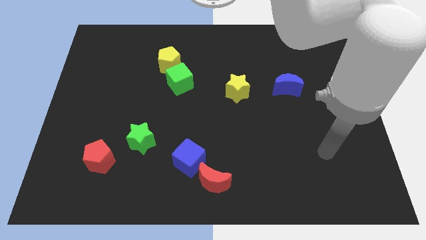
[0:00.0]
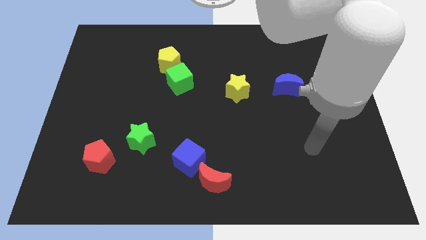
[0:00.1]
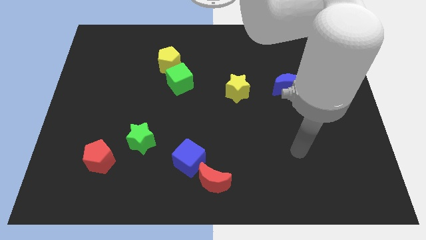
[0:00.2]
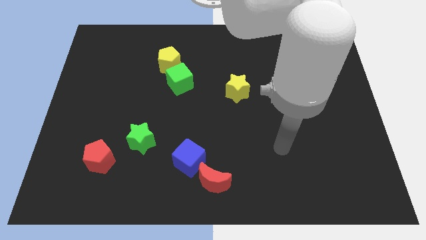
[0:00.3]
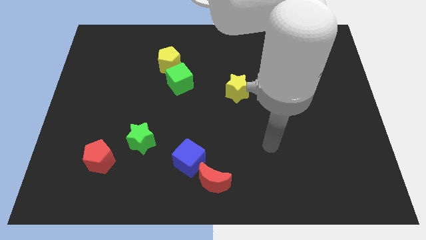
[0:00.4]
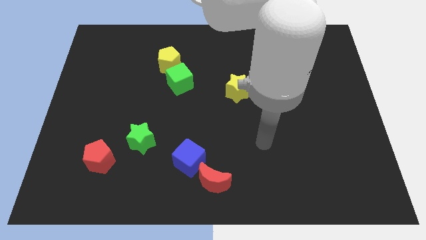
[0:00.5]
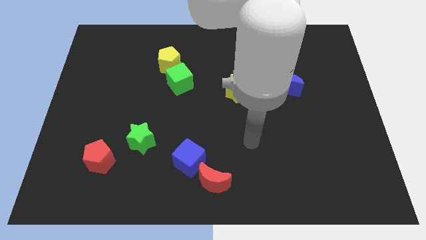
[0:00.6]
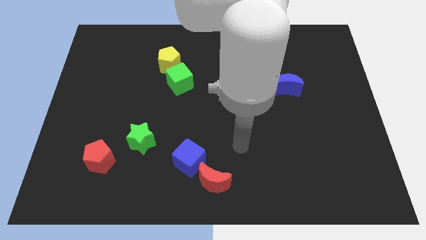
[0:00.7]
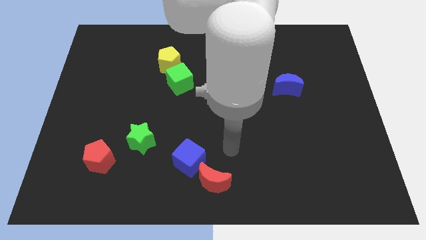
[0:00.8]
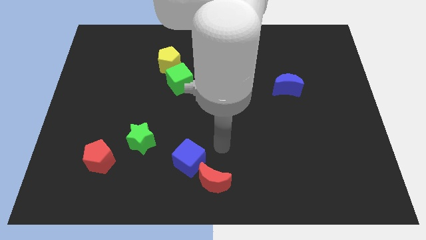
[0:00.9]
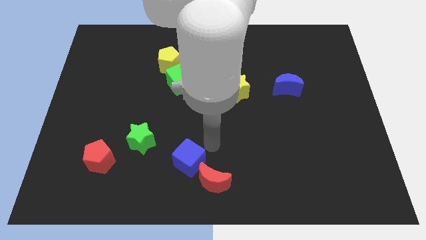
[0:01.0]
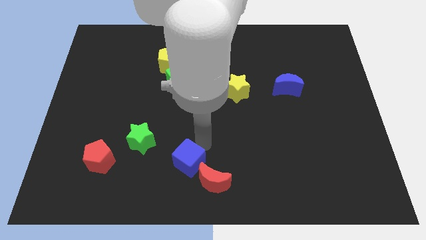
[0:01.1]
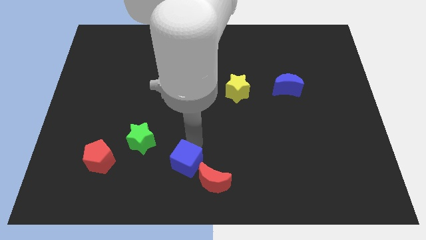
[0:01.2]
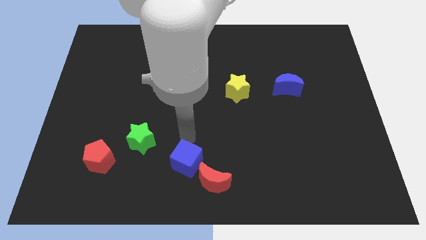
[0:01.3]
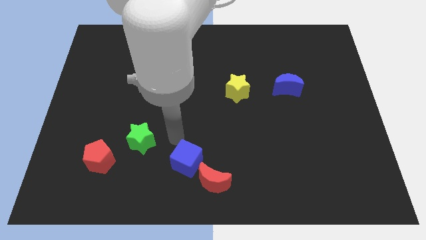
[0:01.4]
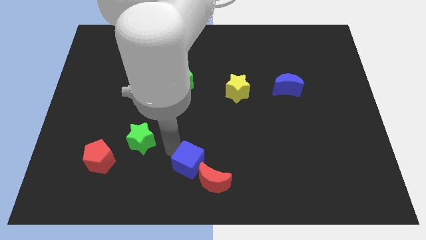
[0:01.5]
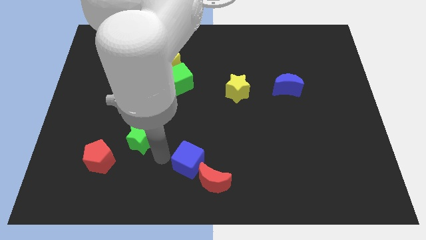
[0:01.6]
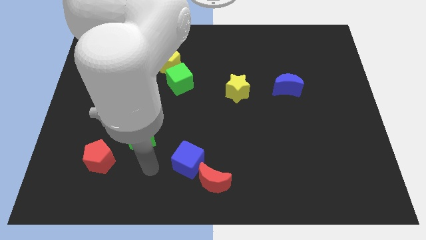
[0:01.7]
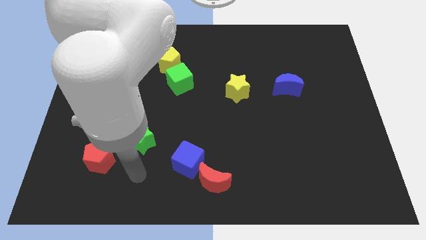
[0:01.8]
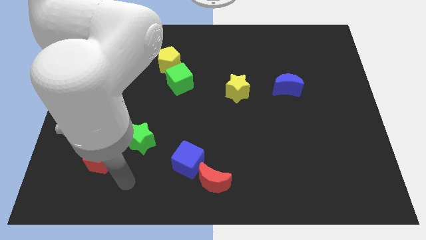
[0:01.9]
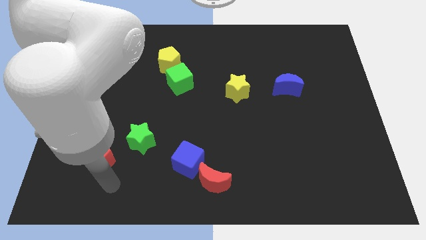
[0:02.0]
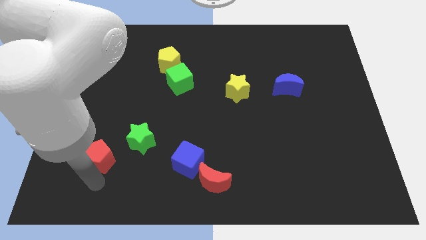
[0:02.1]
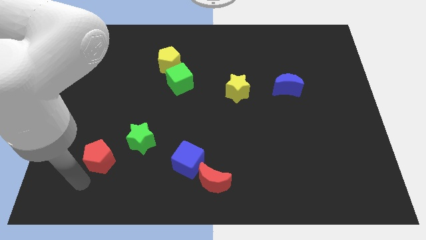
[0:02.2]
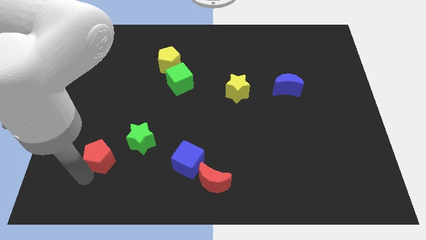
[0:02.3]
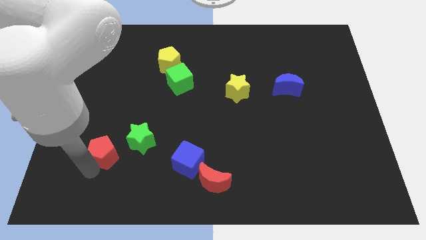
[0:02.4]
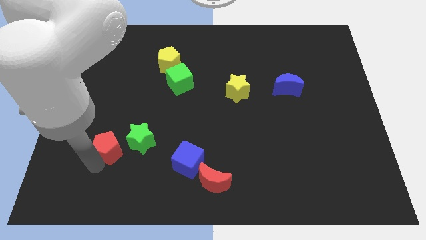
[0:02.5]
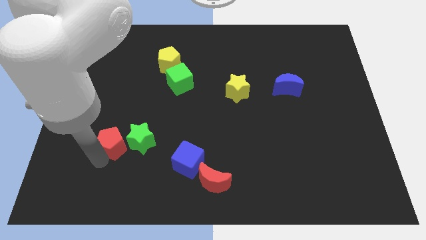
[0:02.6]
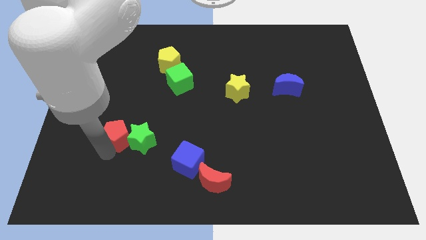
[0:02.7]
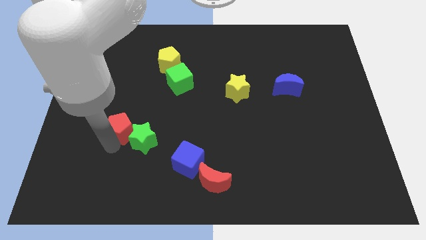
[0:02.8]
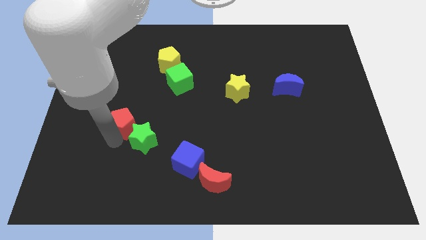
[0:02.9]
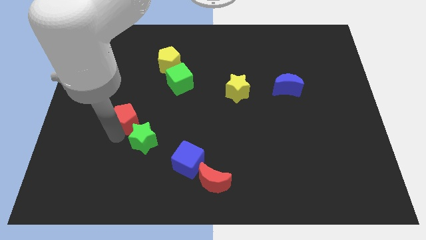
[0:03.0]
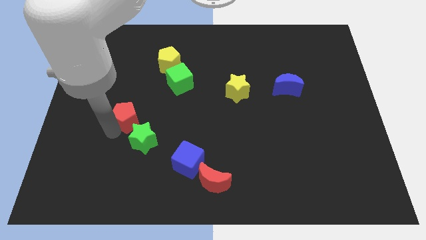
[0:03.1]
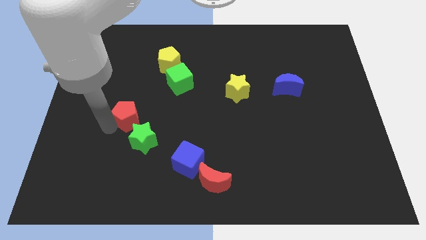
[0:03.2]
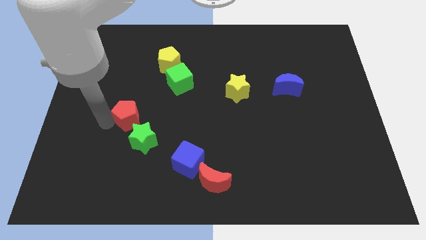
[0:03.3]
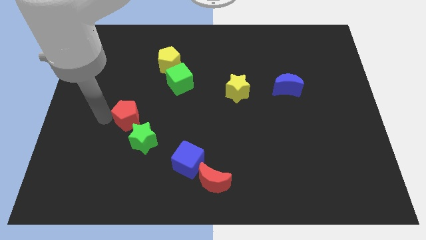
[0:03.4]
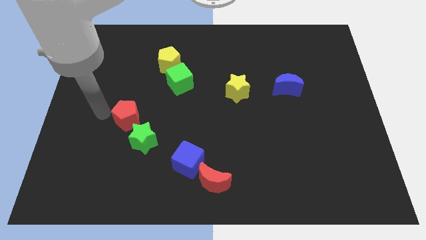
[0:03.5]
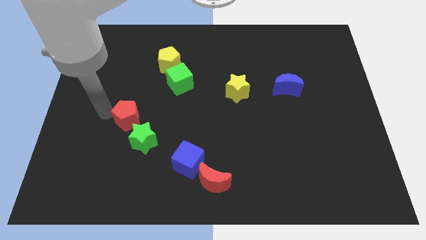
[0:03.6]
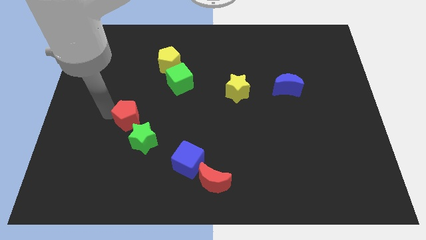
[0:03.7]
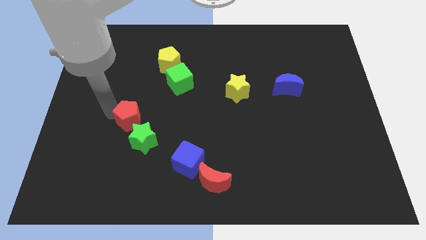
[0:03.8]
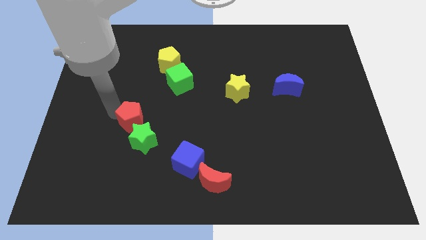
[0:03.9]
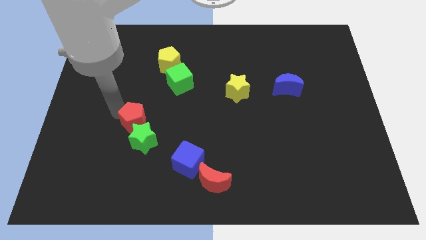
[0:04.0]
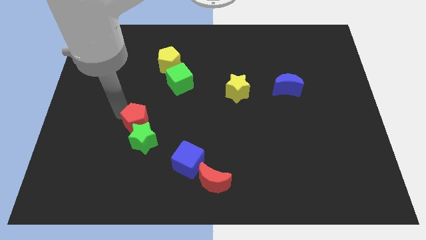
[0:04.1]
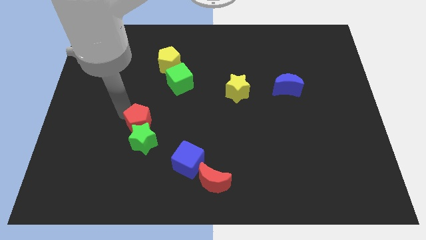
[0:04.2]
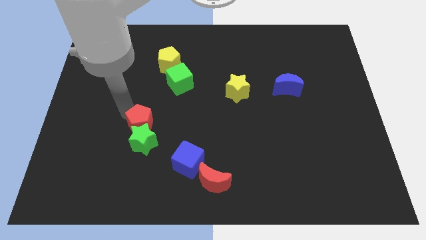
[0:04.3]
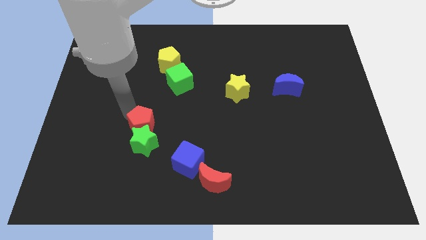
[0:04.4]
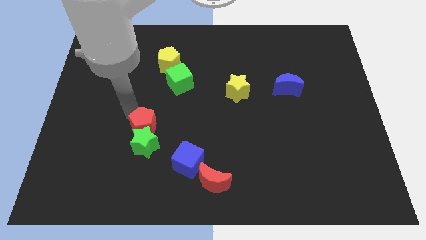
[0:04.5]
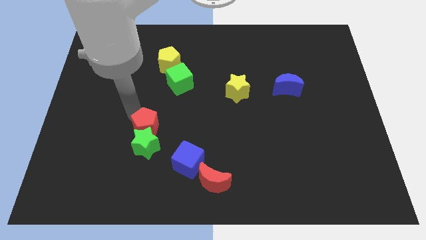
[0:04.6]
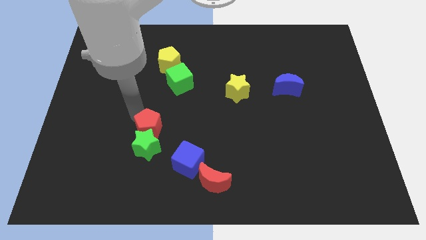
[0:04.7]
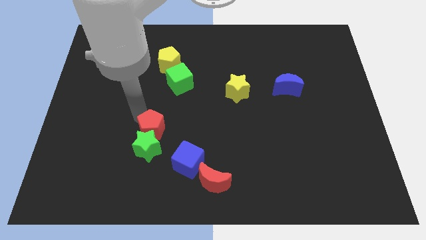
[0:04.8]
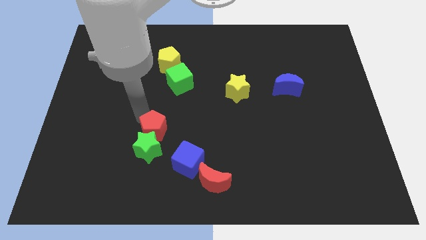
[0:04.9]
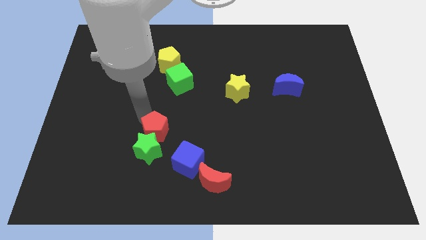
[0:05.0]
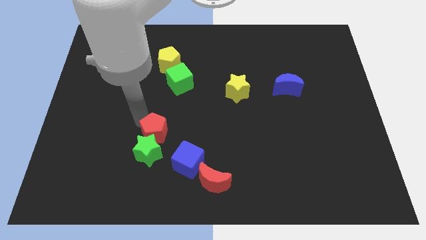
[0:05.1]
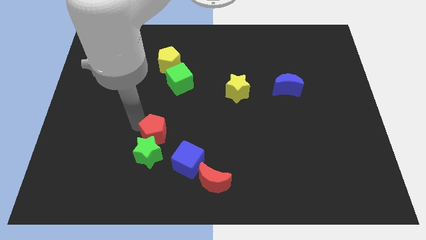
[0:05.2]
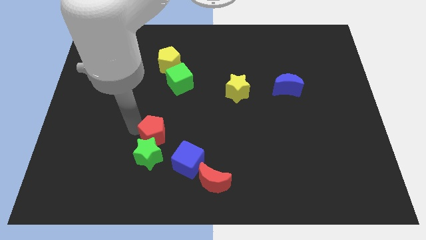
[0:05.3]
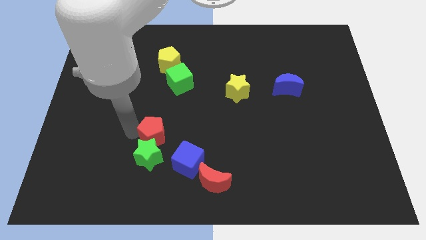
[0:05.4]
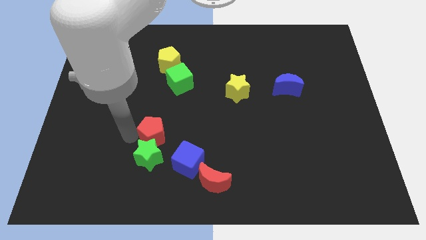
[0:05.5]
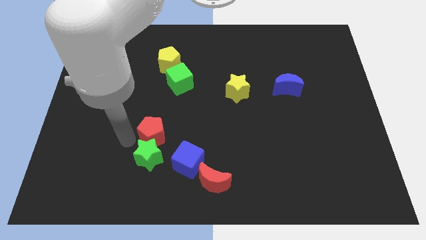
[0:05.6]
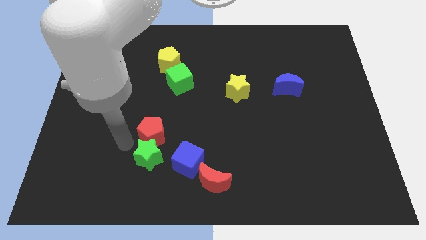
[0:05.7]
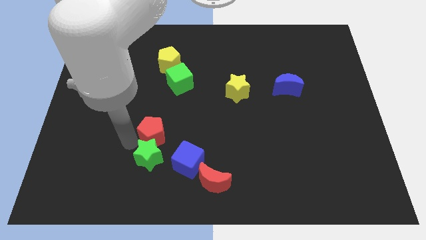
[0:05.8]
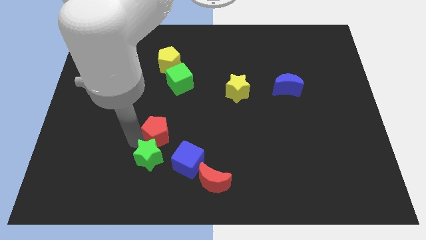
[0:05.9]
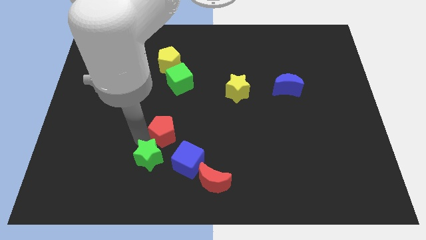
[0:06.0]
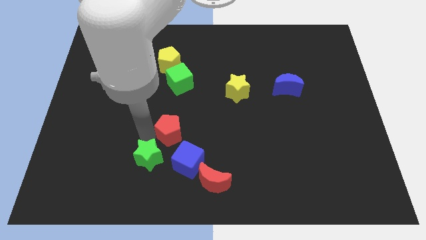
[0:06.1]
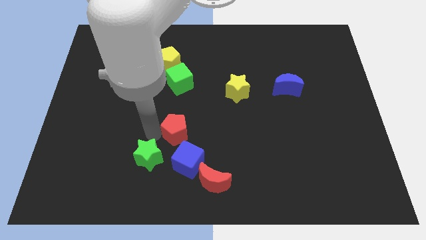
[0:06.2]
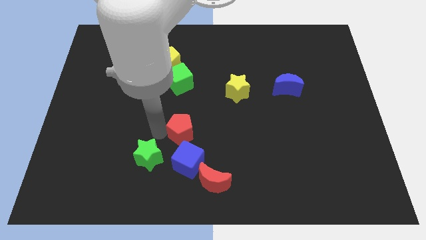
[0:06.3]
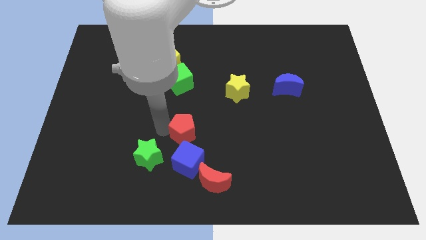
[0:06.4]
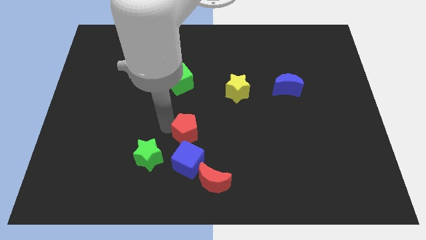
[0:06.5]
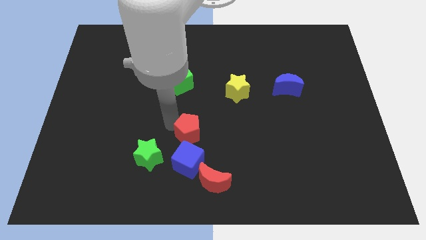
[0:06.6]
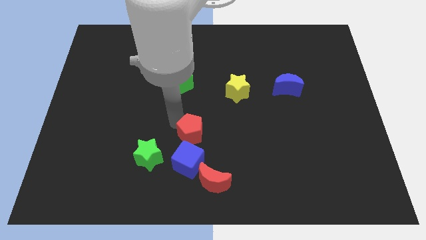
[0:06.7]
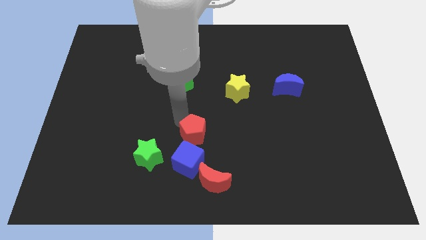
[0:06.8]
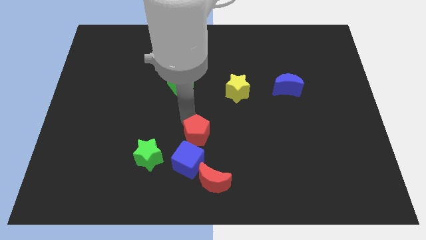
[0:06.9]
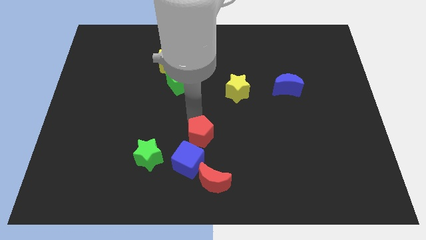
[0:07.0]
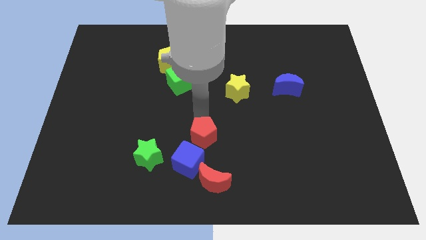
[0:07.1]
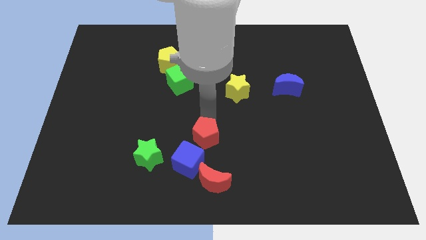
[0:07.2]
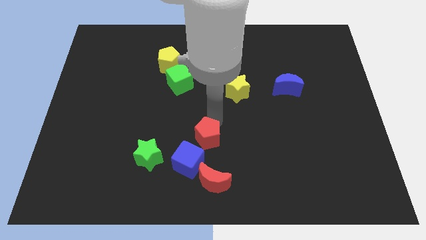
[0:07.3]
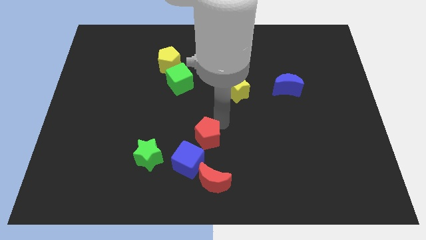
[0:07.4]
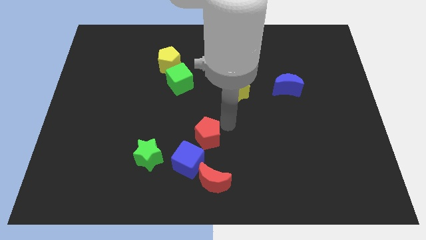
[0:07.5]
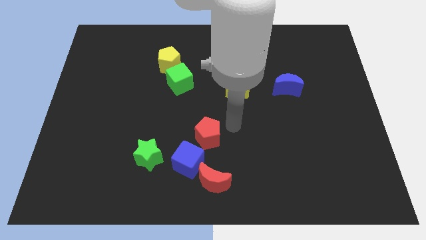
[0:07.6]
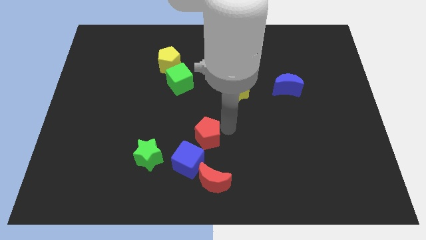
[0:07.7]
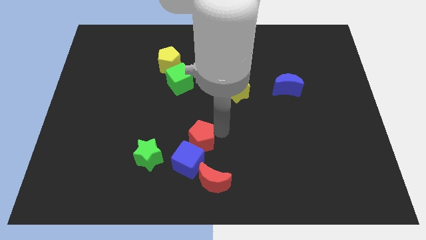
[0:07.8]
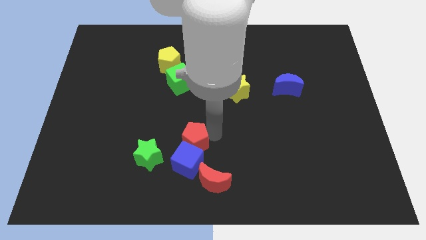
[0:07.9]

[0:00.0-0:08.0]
push the red pentagon to the top left side of the red moon
